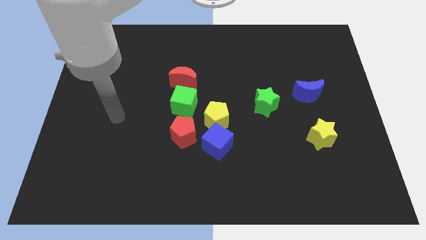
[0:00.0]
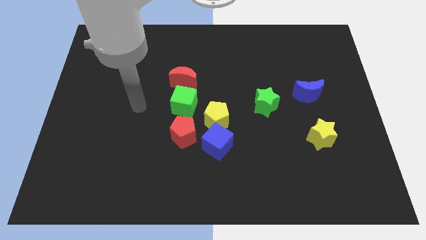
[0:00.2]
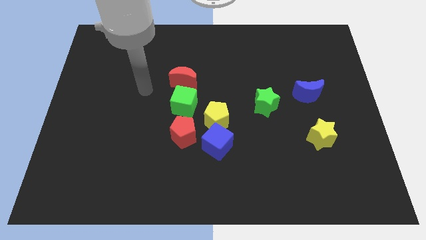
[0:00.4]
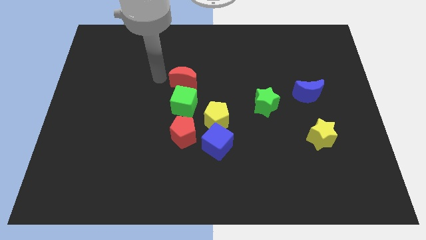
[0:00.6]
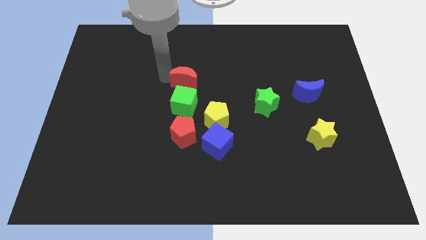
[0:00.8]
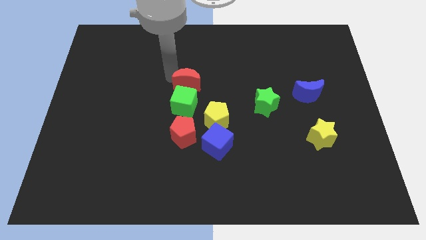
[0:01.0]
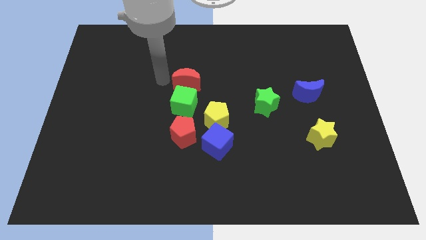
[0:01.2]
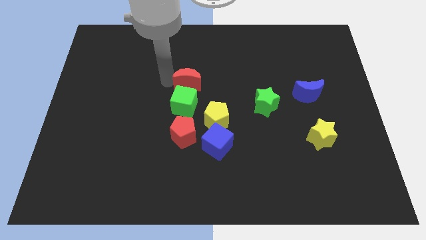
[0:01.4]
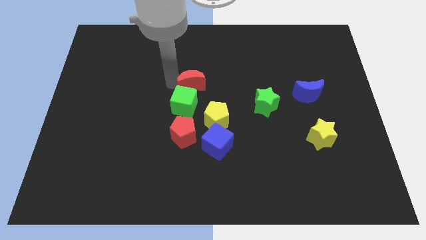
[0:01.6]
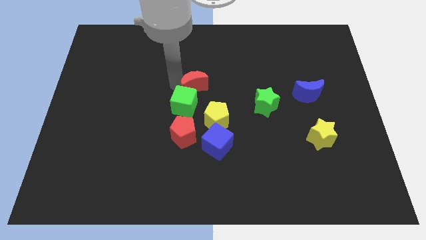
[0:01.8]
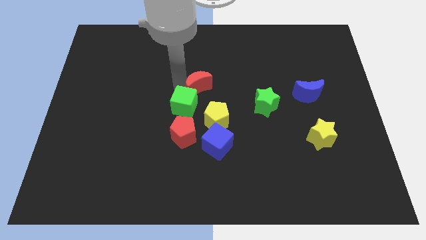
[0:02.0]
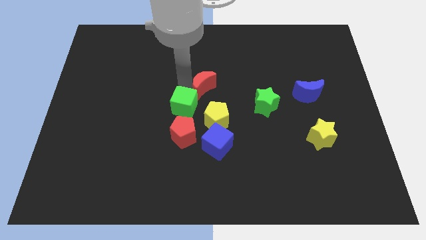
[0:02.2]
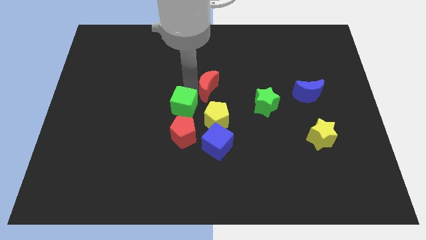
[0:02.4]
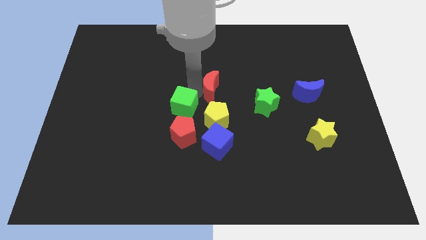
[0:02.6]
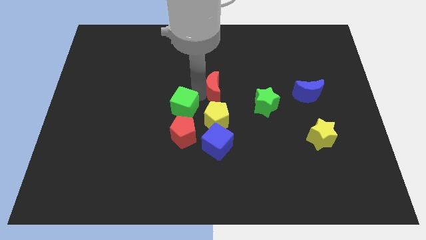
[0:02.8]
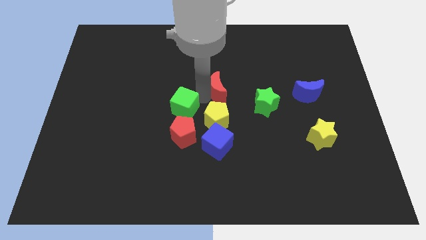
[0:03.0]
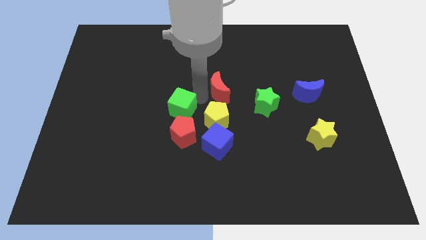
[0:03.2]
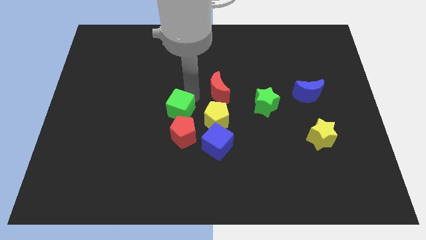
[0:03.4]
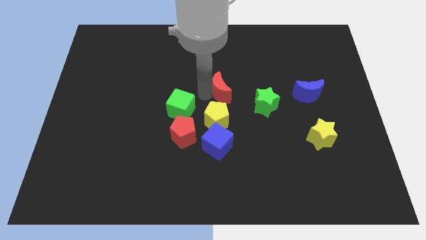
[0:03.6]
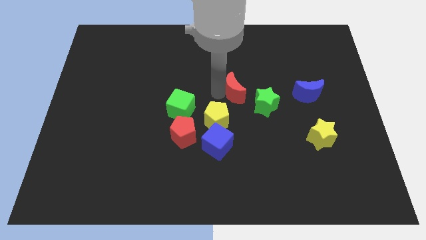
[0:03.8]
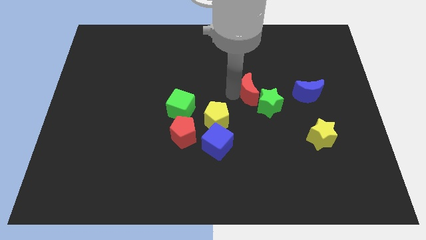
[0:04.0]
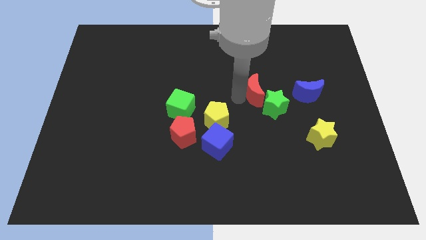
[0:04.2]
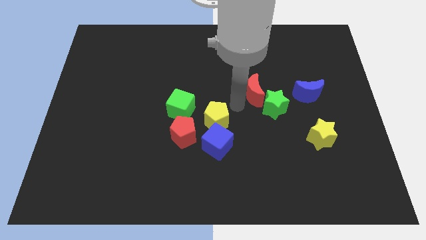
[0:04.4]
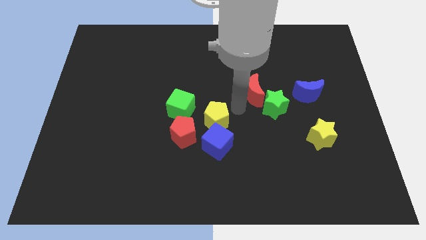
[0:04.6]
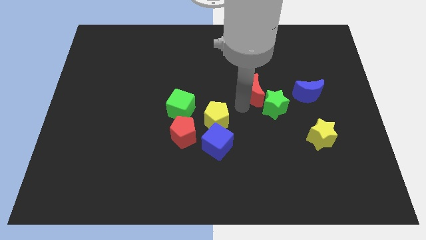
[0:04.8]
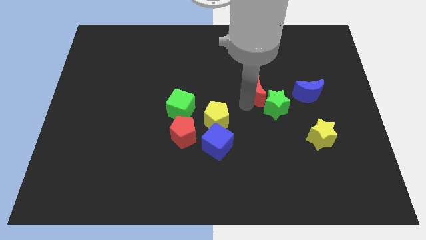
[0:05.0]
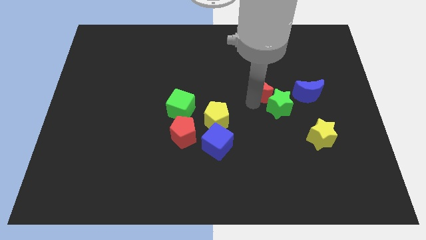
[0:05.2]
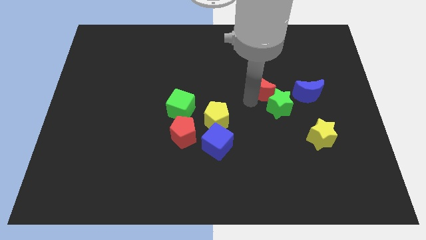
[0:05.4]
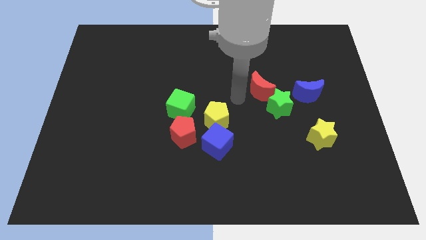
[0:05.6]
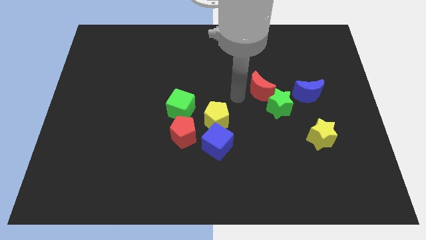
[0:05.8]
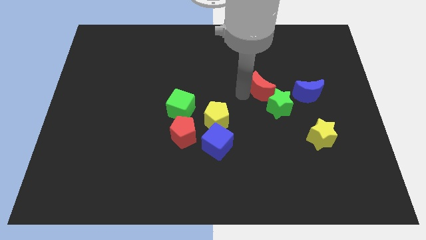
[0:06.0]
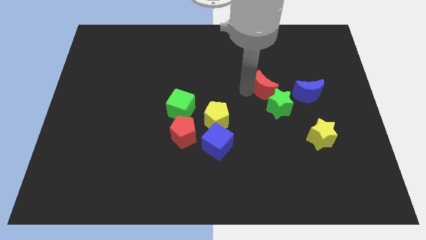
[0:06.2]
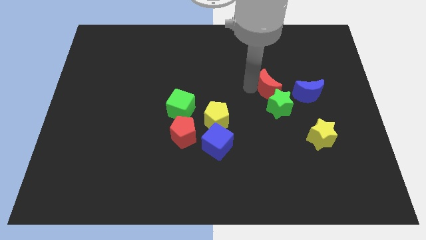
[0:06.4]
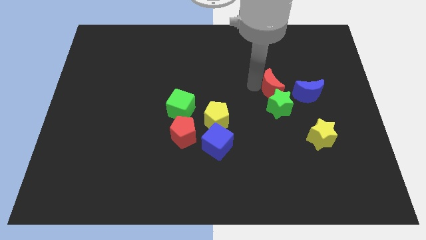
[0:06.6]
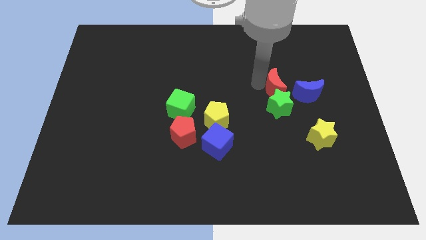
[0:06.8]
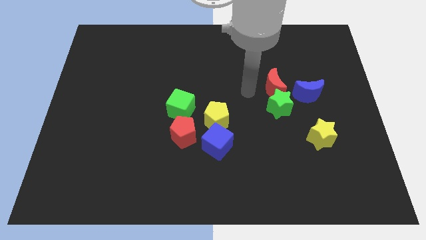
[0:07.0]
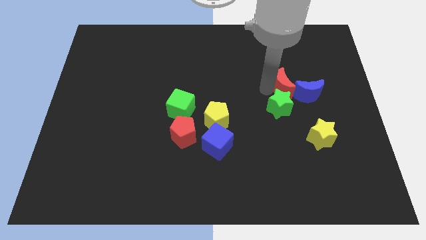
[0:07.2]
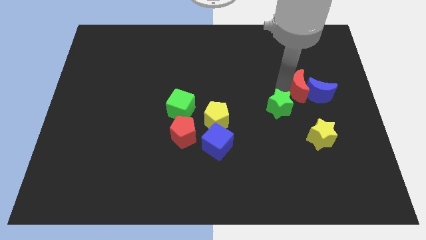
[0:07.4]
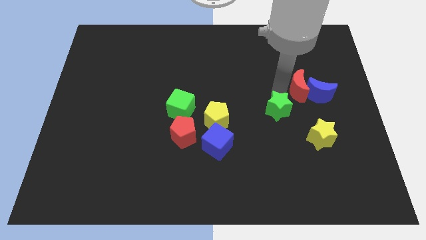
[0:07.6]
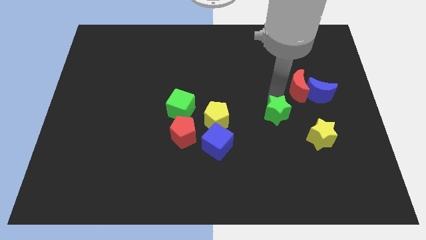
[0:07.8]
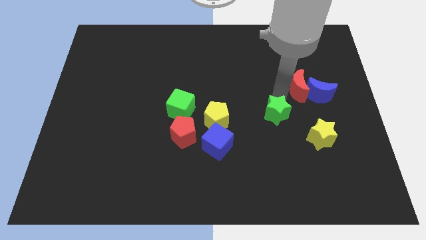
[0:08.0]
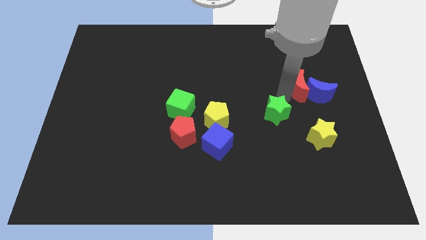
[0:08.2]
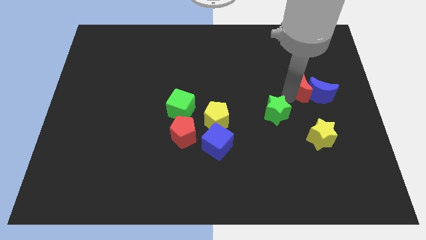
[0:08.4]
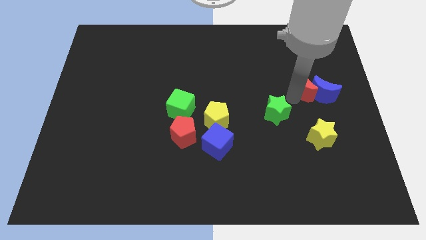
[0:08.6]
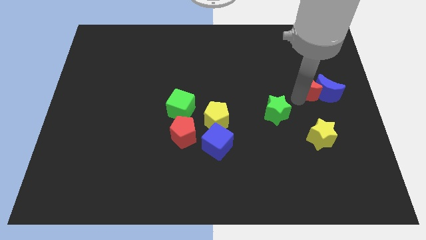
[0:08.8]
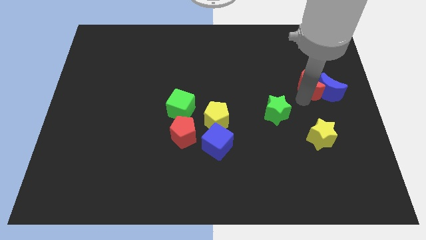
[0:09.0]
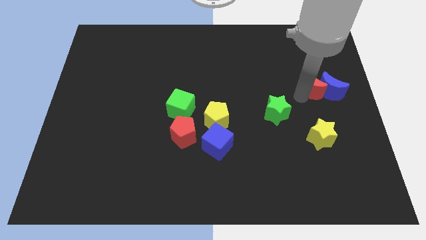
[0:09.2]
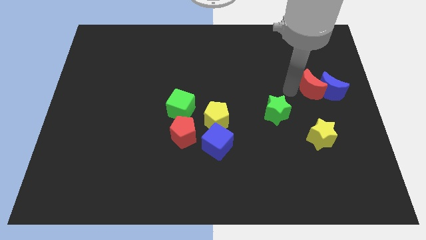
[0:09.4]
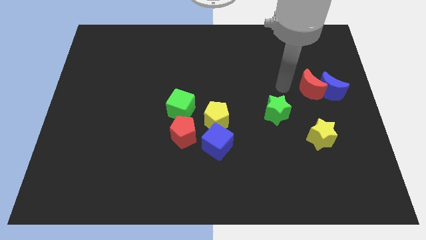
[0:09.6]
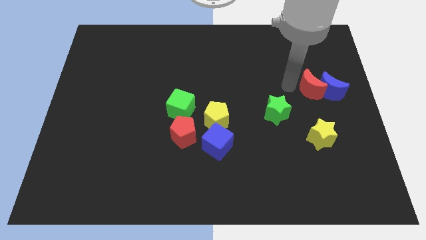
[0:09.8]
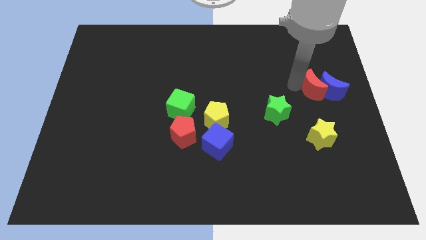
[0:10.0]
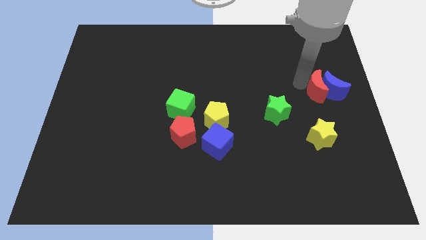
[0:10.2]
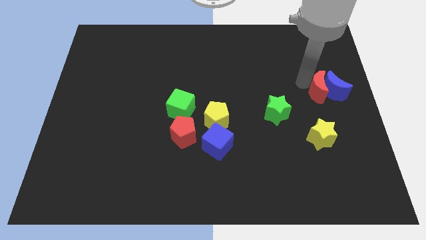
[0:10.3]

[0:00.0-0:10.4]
push the red moon to the center right

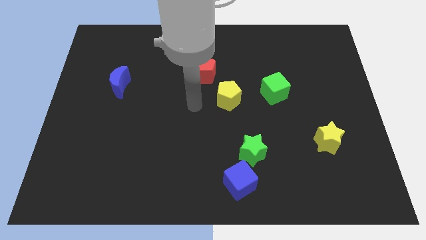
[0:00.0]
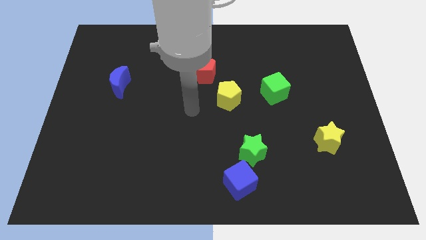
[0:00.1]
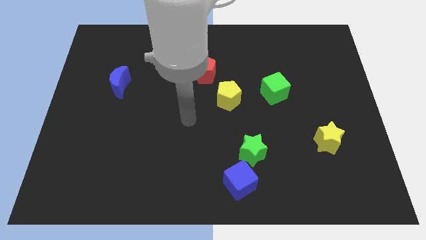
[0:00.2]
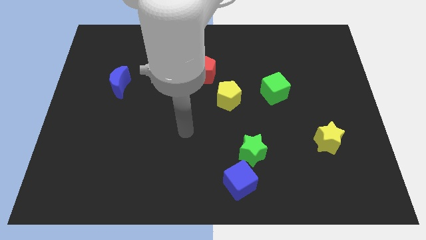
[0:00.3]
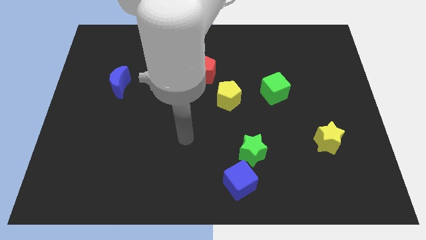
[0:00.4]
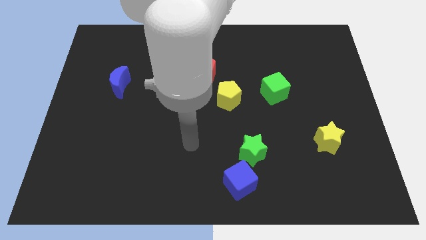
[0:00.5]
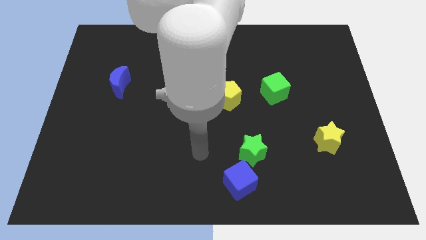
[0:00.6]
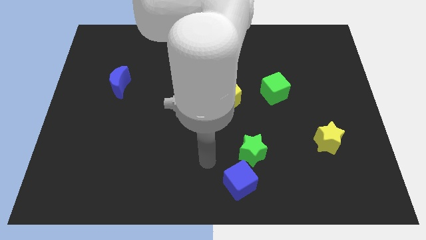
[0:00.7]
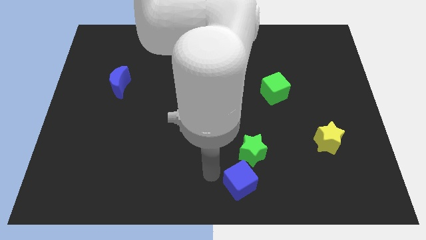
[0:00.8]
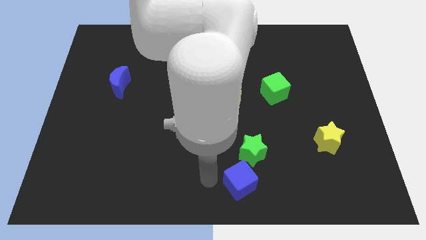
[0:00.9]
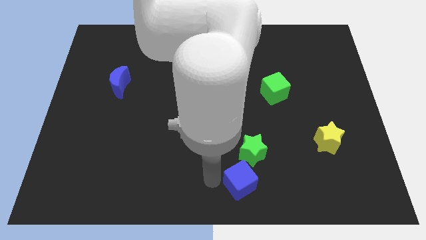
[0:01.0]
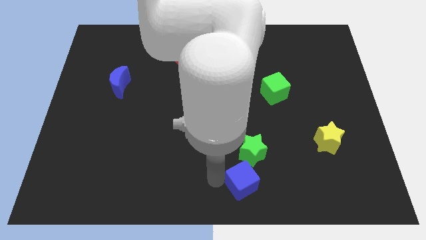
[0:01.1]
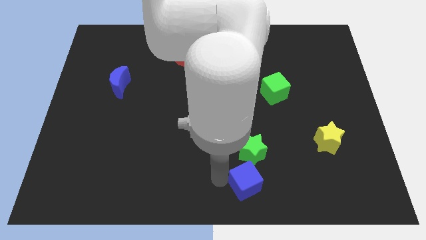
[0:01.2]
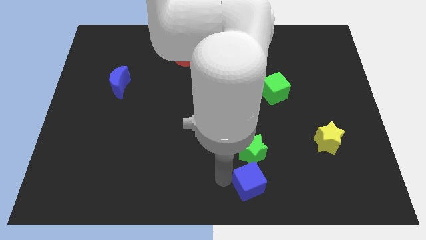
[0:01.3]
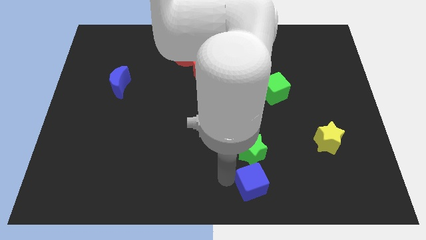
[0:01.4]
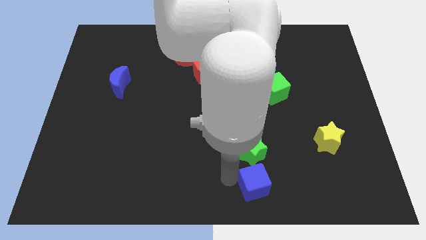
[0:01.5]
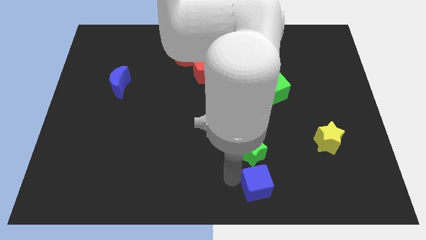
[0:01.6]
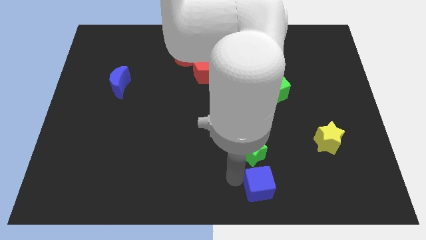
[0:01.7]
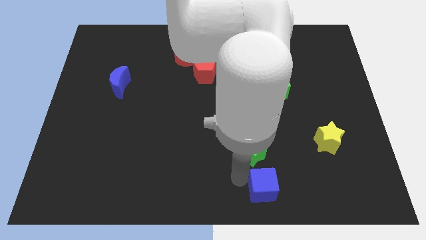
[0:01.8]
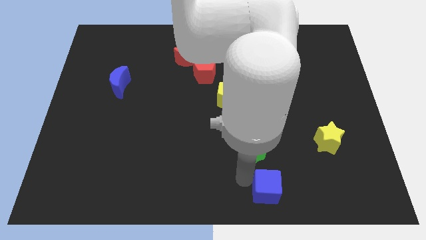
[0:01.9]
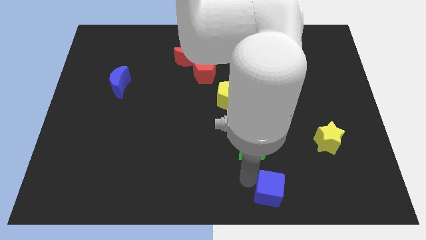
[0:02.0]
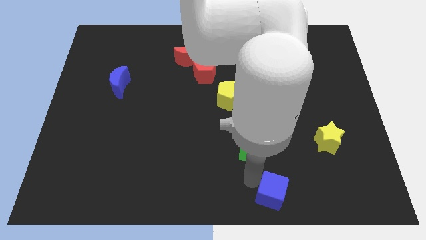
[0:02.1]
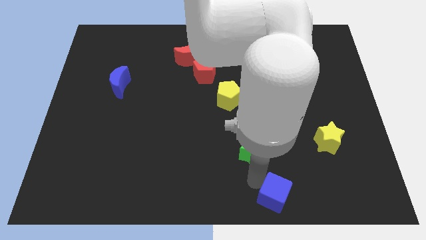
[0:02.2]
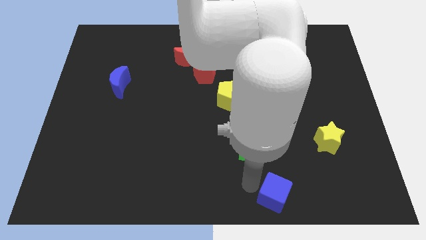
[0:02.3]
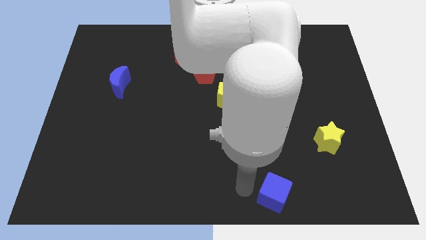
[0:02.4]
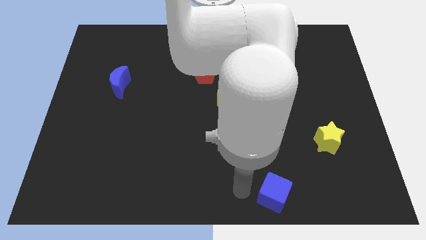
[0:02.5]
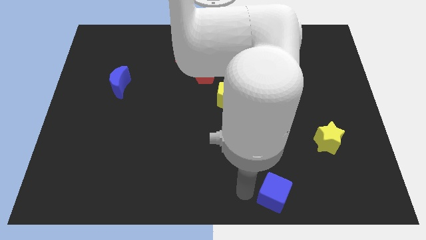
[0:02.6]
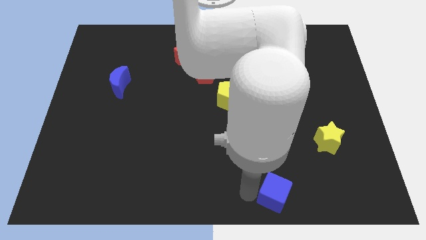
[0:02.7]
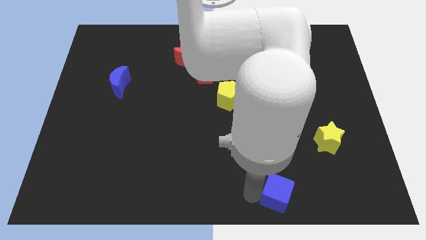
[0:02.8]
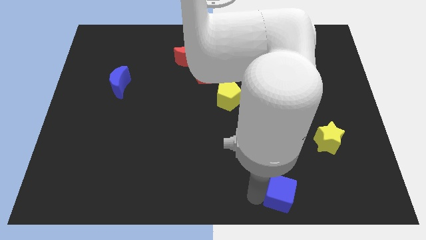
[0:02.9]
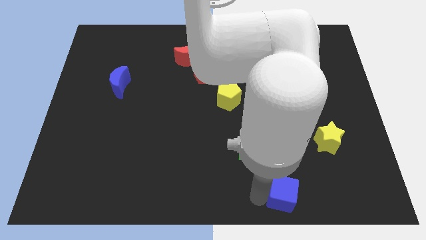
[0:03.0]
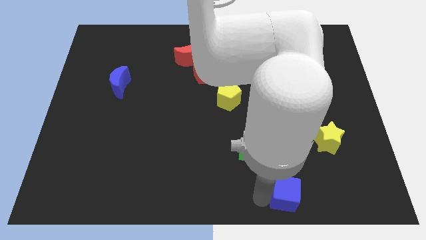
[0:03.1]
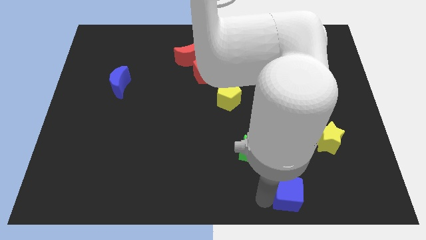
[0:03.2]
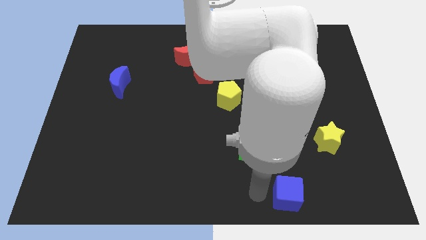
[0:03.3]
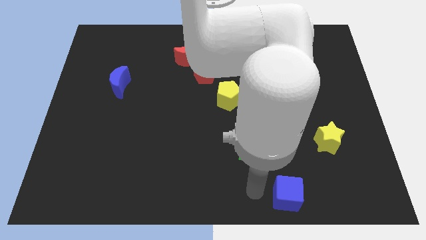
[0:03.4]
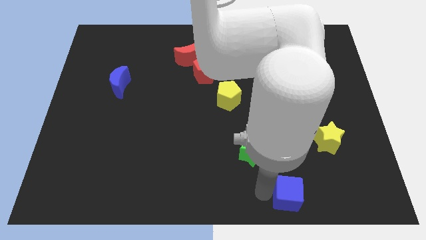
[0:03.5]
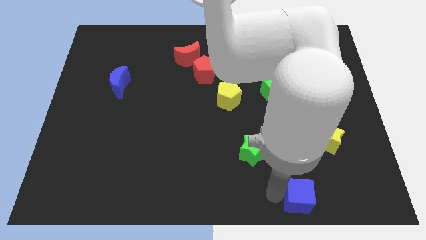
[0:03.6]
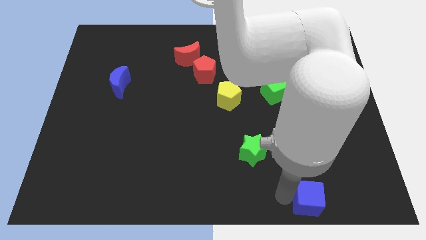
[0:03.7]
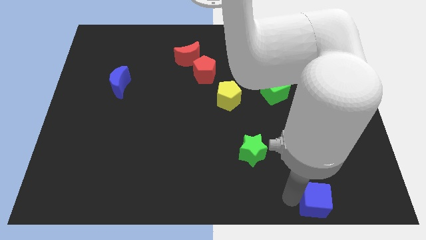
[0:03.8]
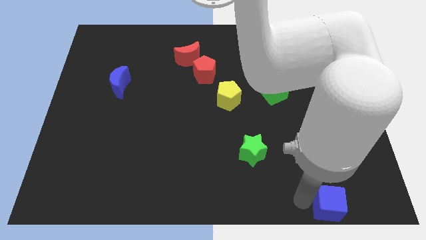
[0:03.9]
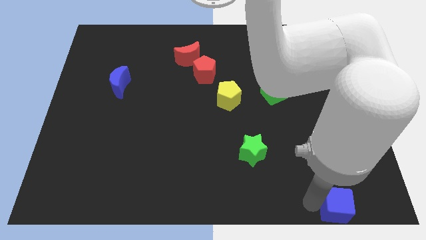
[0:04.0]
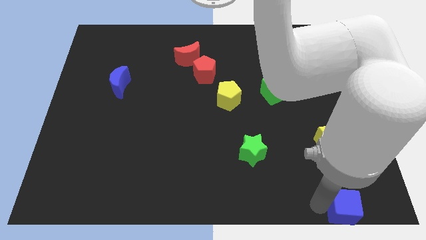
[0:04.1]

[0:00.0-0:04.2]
slide the blue cube to the bottom right corner
